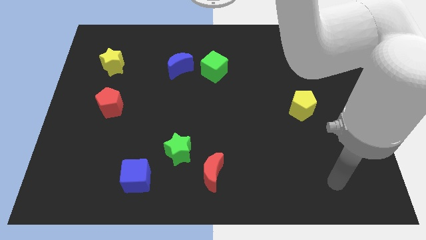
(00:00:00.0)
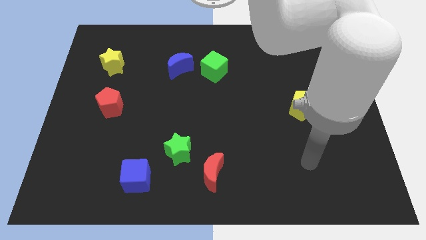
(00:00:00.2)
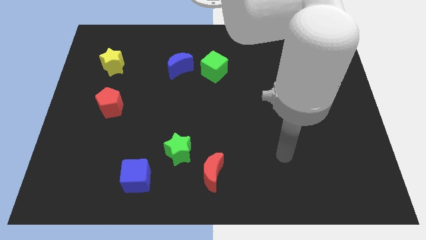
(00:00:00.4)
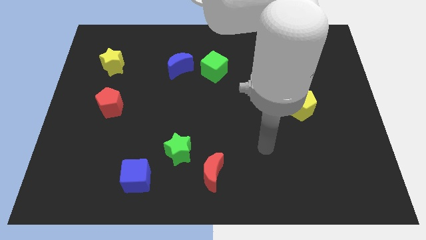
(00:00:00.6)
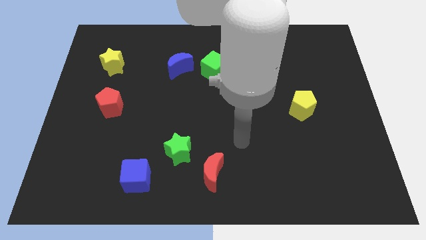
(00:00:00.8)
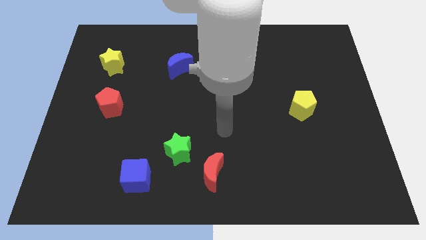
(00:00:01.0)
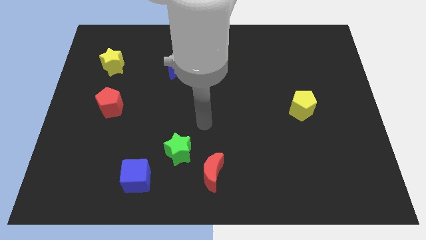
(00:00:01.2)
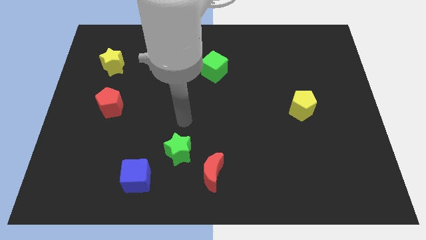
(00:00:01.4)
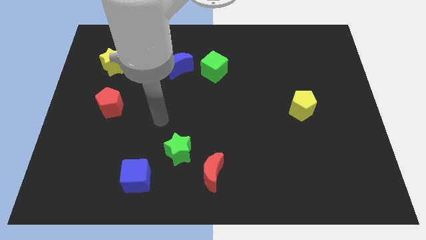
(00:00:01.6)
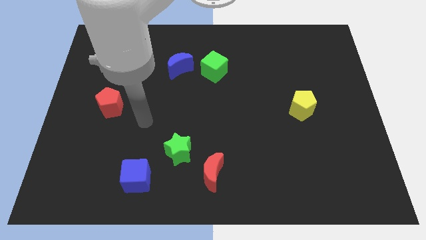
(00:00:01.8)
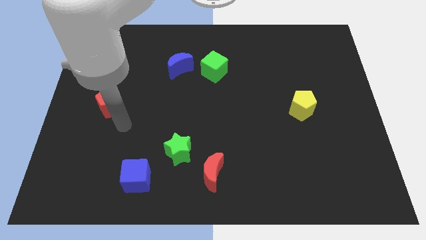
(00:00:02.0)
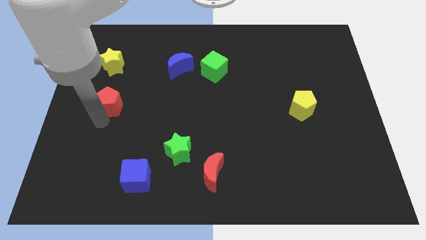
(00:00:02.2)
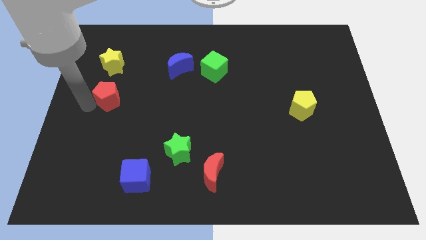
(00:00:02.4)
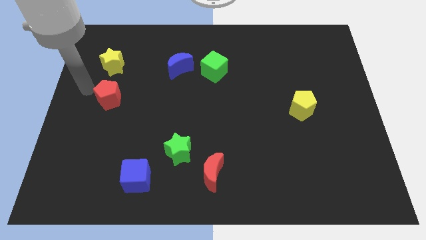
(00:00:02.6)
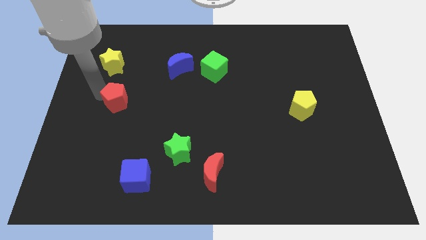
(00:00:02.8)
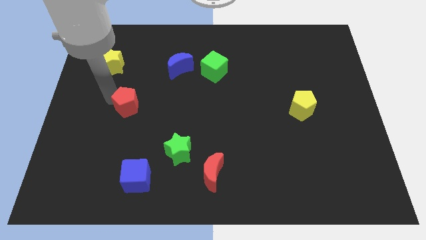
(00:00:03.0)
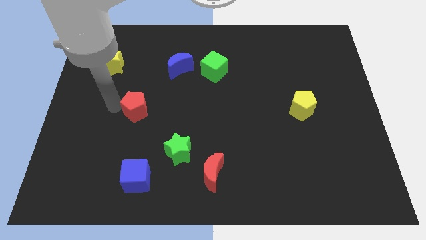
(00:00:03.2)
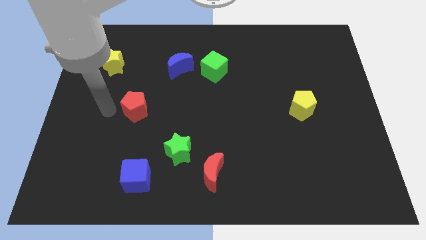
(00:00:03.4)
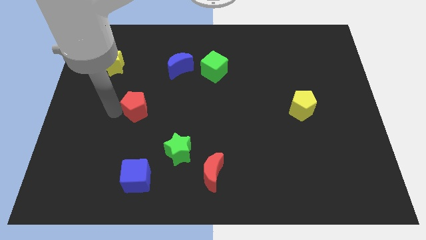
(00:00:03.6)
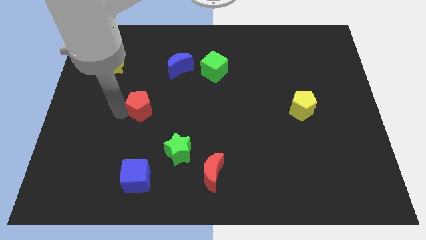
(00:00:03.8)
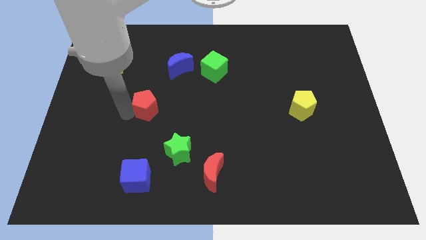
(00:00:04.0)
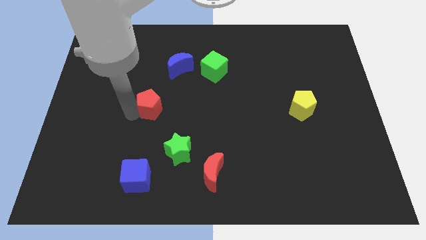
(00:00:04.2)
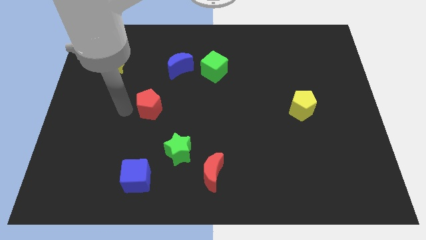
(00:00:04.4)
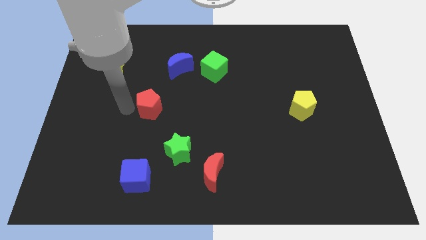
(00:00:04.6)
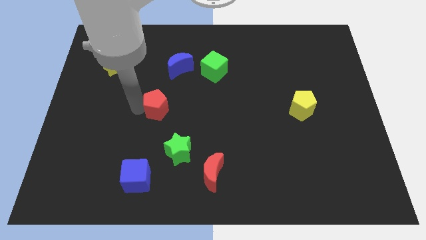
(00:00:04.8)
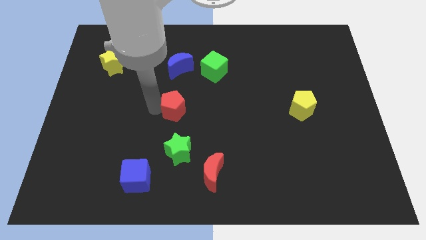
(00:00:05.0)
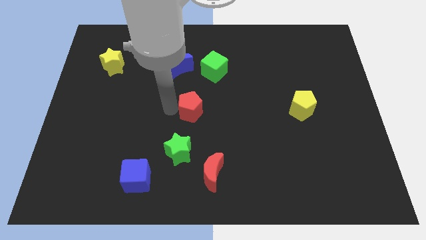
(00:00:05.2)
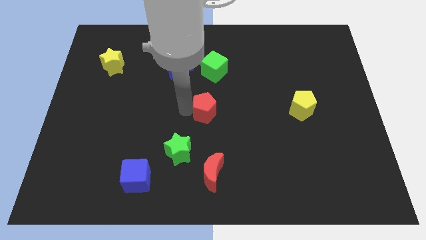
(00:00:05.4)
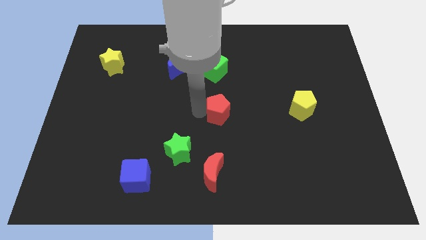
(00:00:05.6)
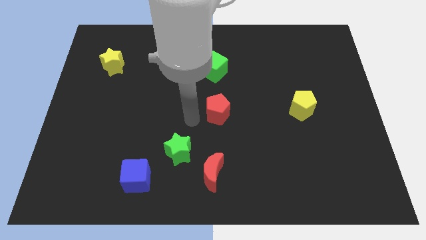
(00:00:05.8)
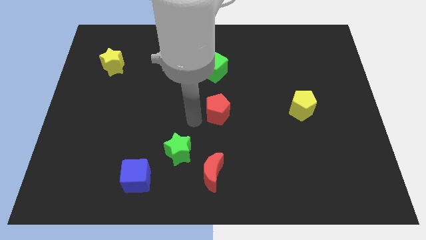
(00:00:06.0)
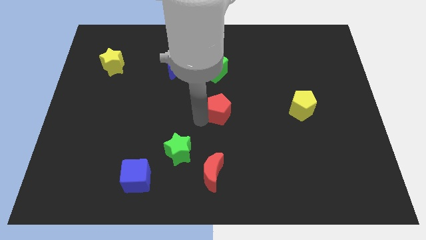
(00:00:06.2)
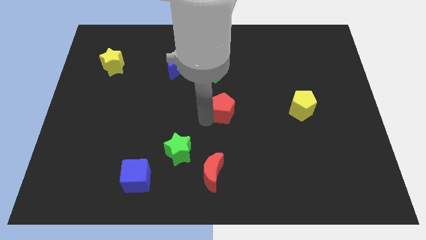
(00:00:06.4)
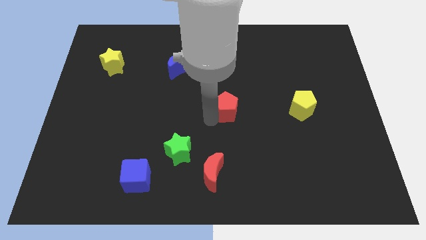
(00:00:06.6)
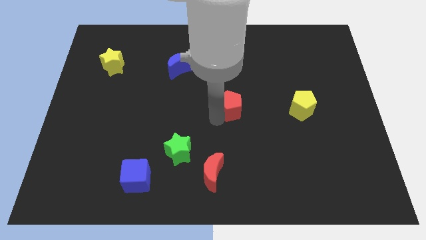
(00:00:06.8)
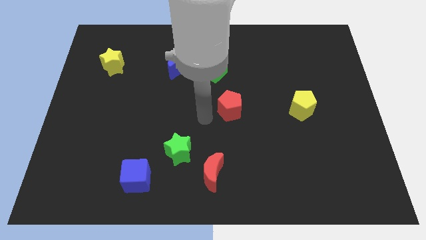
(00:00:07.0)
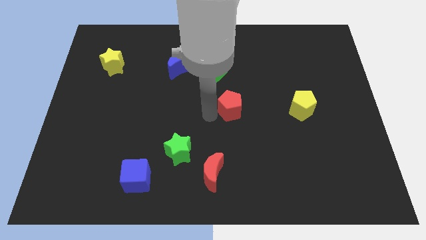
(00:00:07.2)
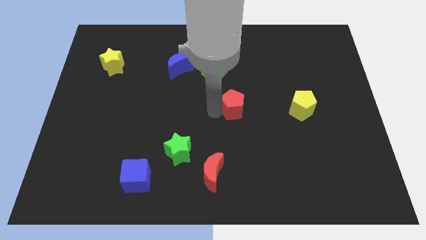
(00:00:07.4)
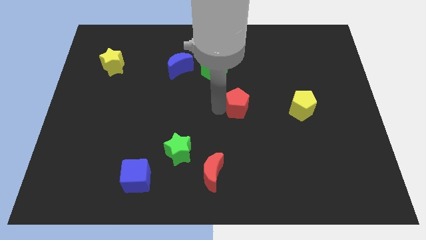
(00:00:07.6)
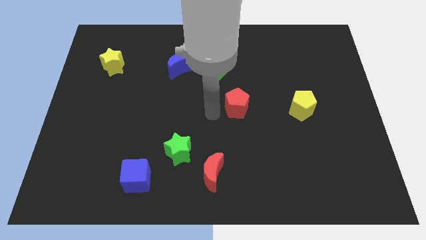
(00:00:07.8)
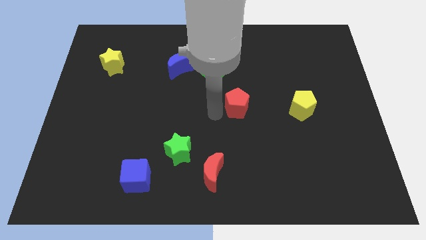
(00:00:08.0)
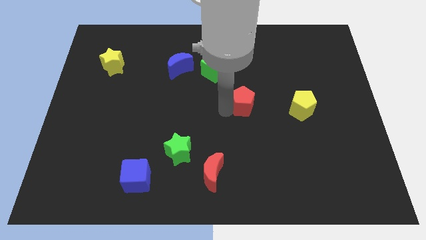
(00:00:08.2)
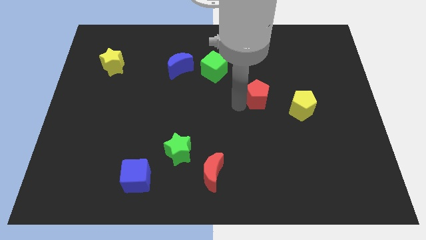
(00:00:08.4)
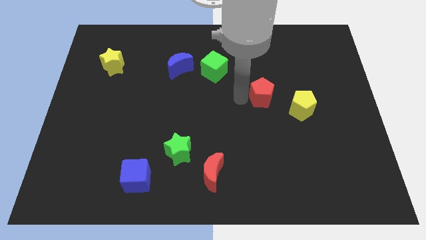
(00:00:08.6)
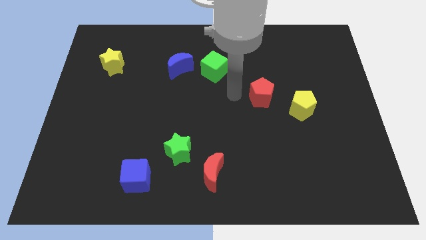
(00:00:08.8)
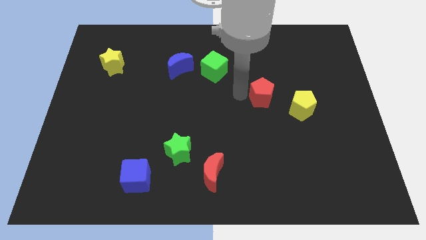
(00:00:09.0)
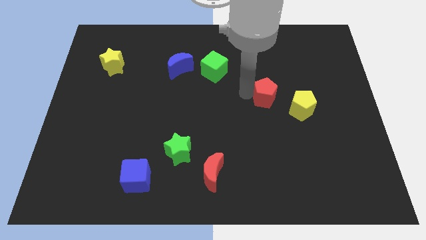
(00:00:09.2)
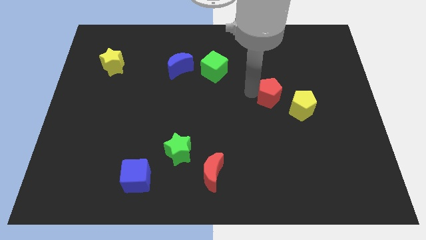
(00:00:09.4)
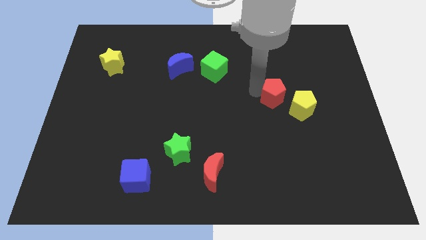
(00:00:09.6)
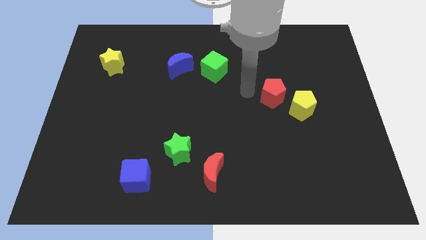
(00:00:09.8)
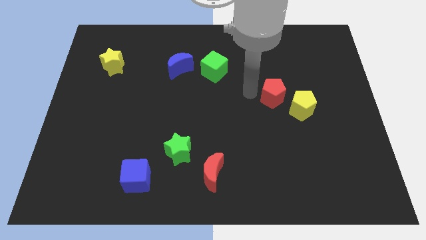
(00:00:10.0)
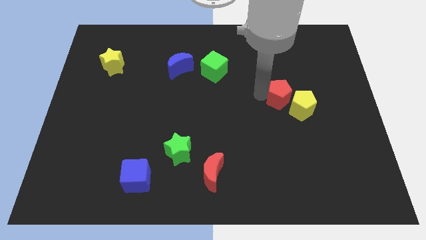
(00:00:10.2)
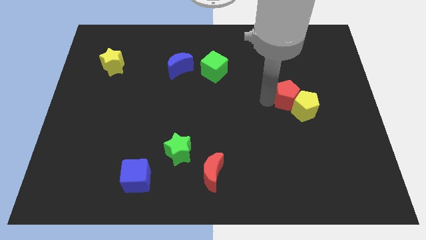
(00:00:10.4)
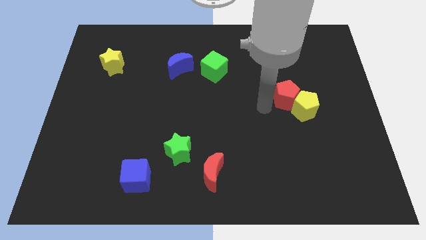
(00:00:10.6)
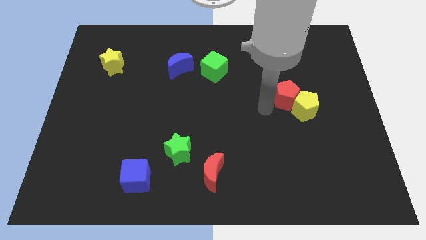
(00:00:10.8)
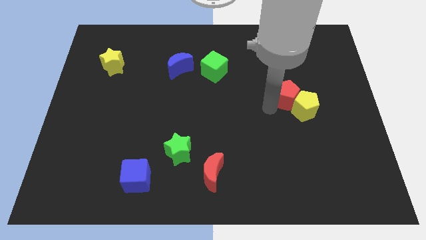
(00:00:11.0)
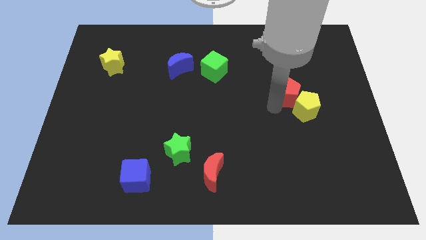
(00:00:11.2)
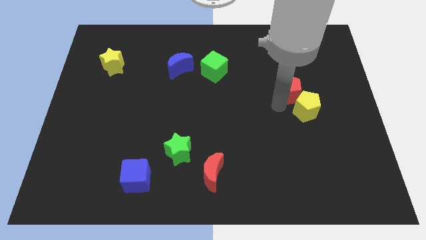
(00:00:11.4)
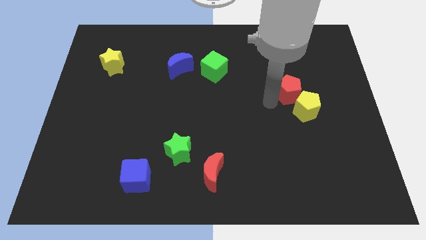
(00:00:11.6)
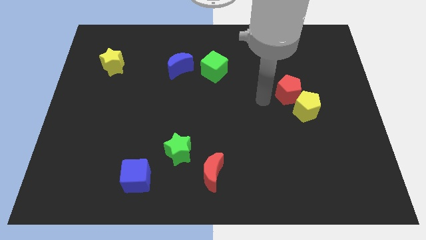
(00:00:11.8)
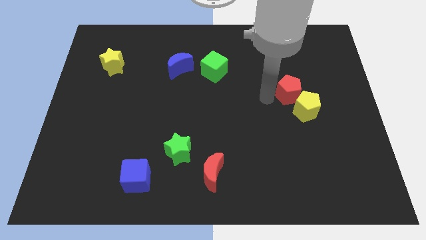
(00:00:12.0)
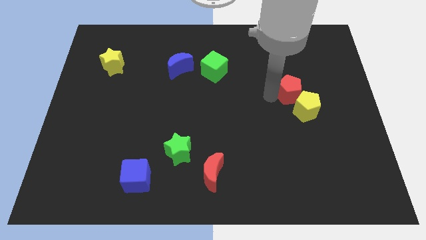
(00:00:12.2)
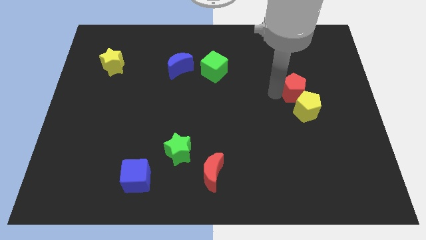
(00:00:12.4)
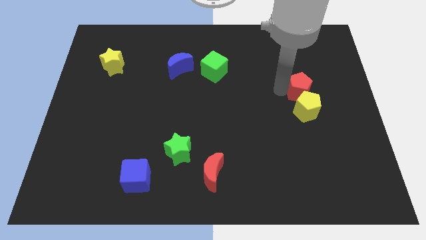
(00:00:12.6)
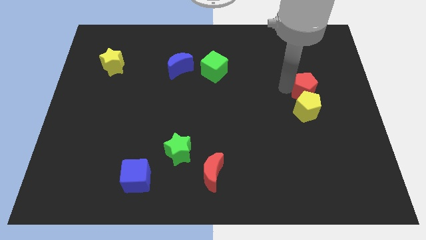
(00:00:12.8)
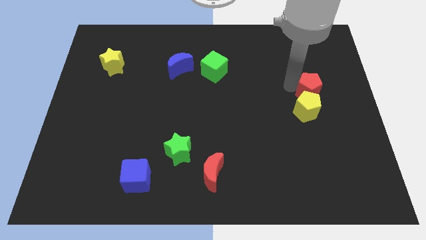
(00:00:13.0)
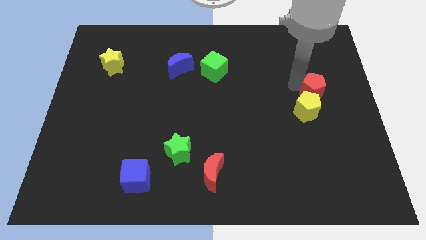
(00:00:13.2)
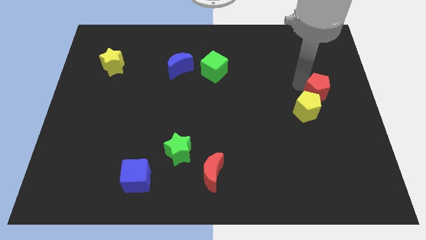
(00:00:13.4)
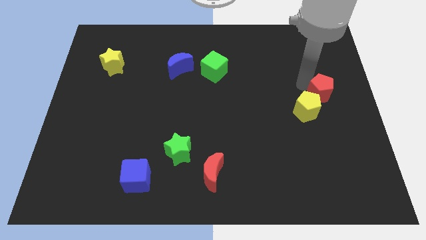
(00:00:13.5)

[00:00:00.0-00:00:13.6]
slide the red pentagon to the center right
